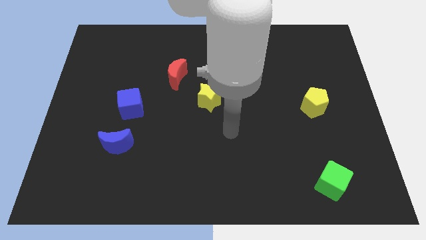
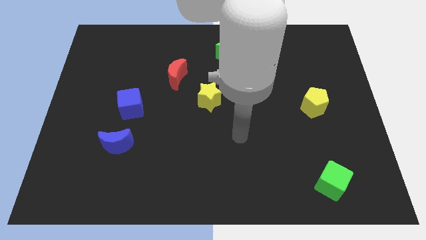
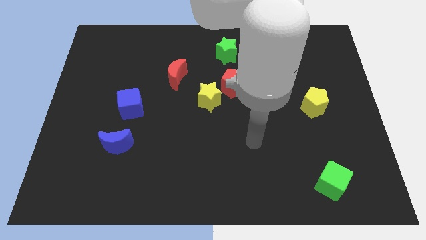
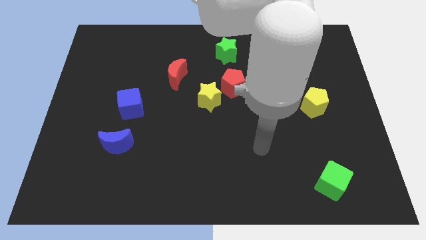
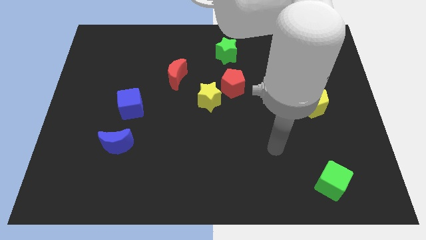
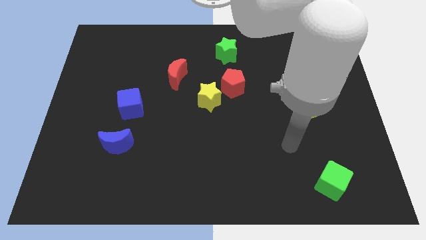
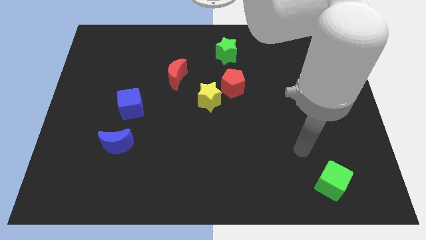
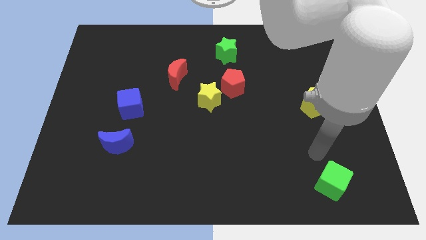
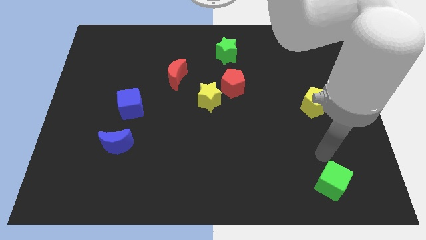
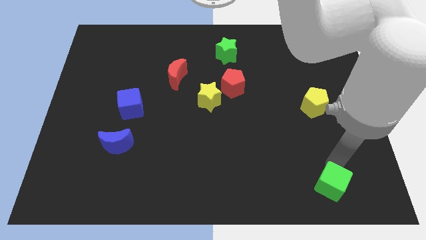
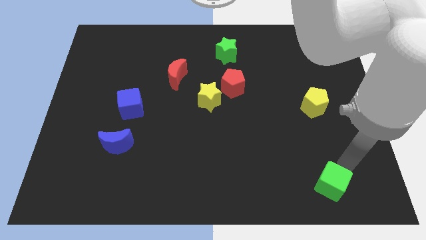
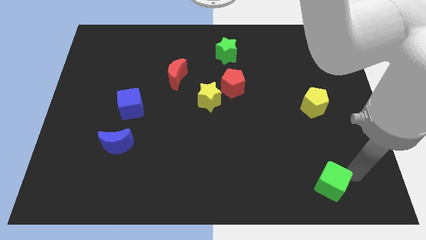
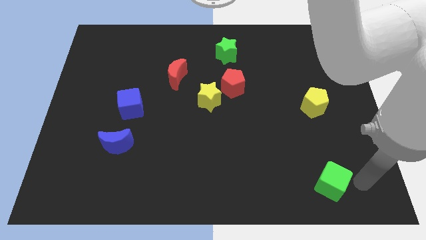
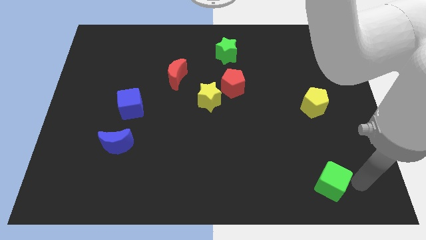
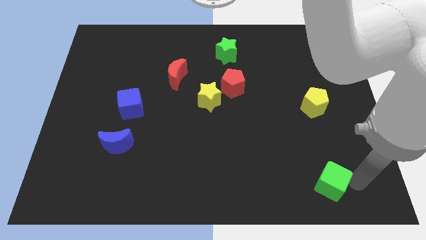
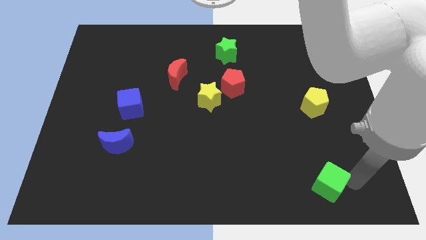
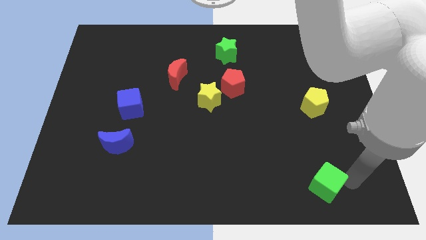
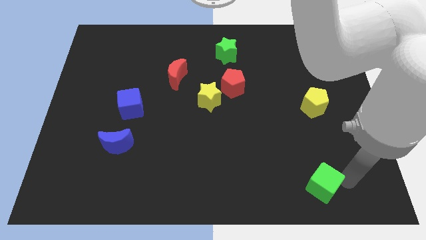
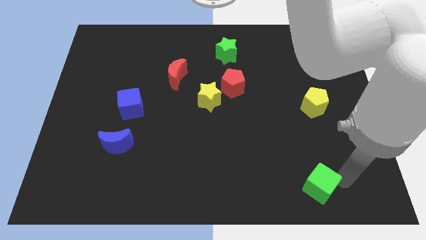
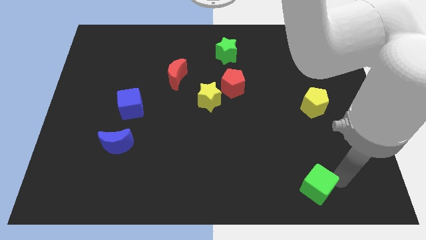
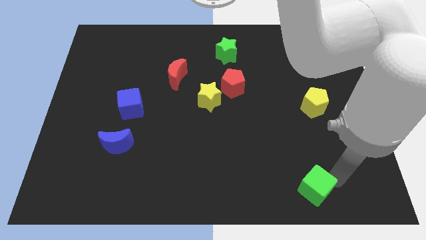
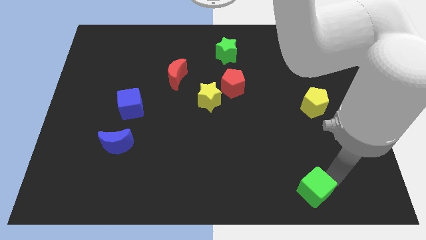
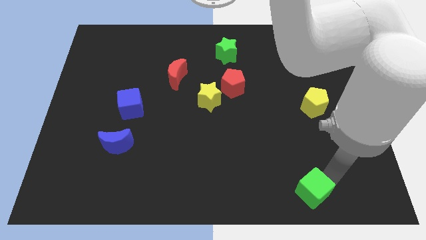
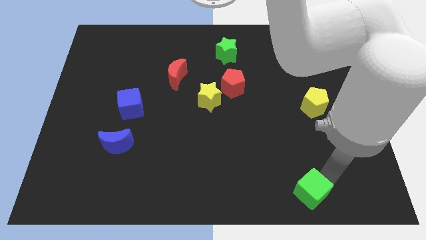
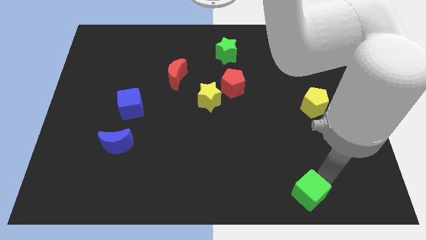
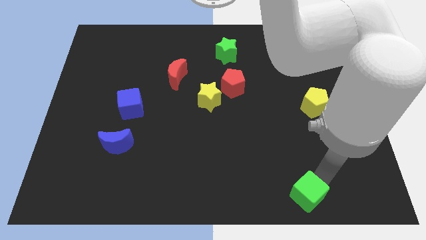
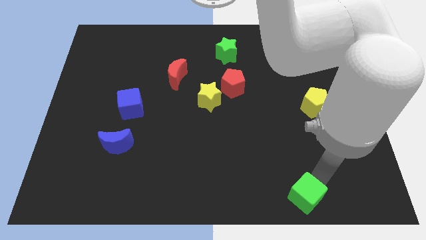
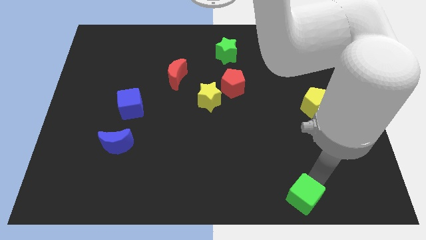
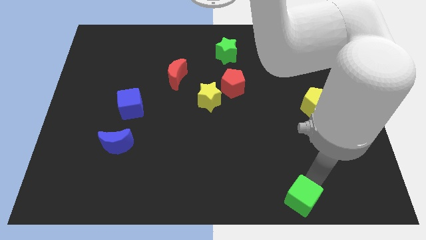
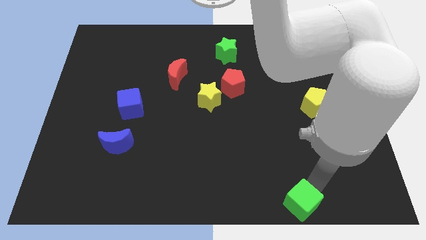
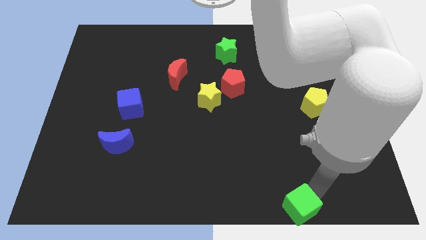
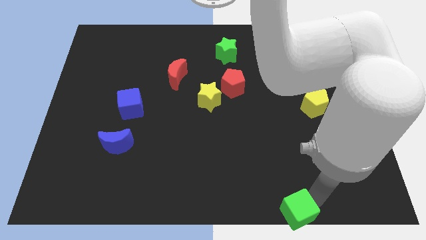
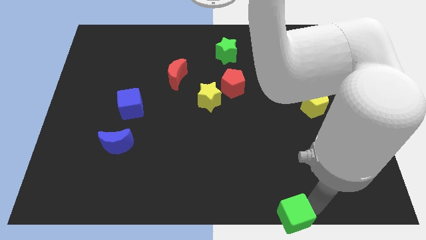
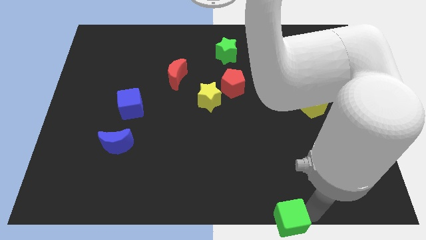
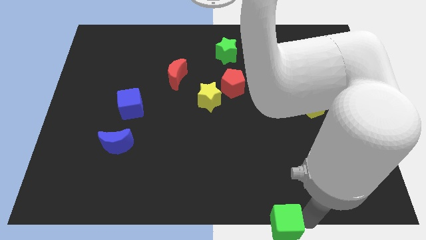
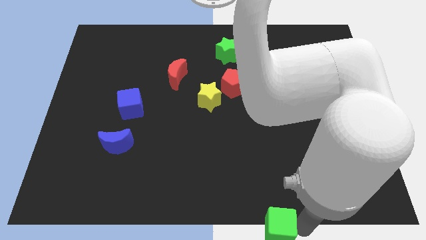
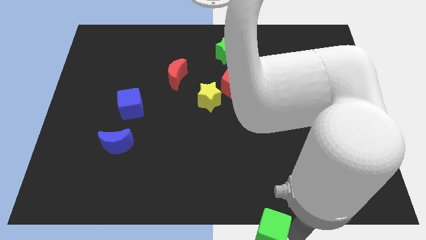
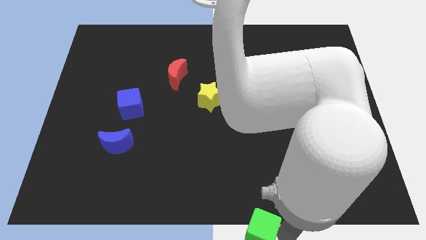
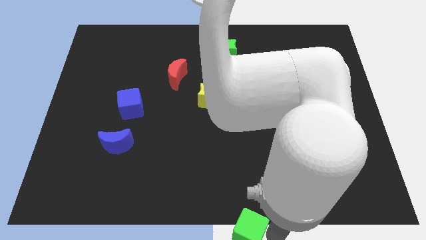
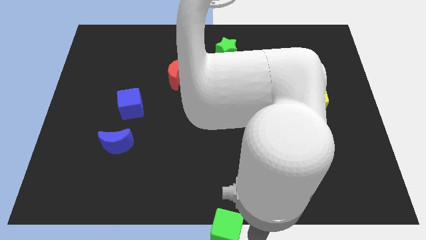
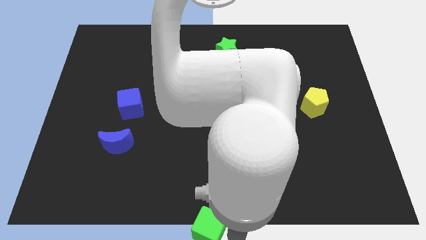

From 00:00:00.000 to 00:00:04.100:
slide the green cube to the left

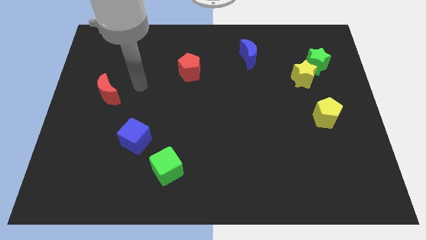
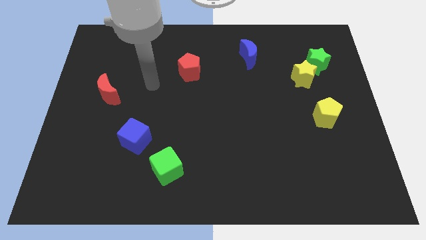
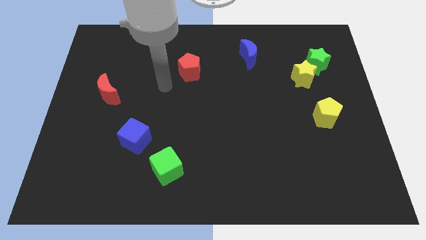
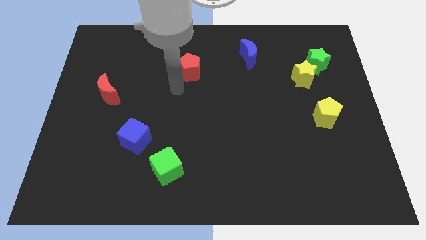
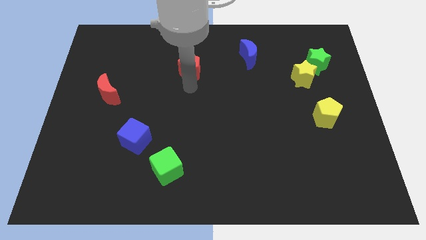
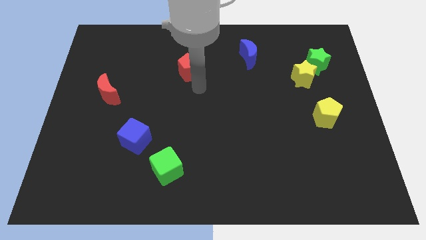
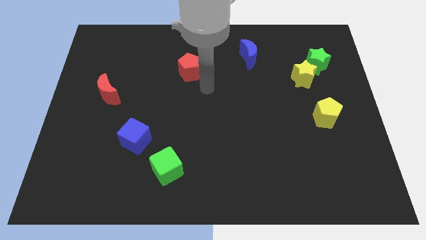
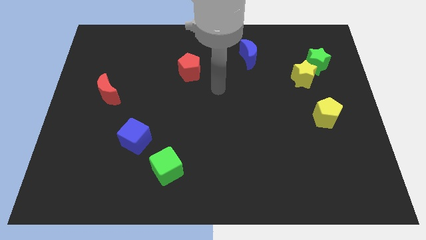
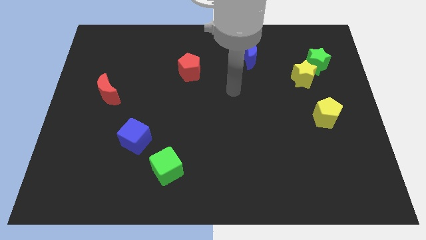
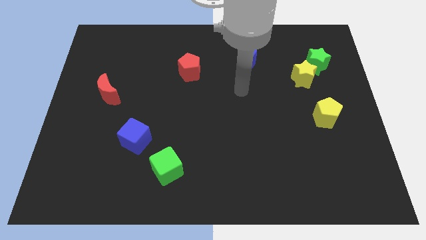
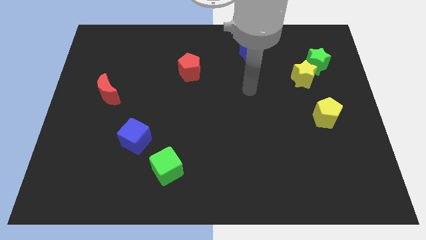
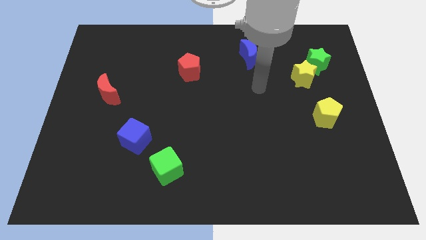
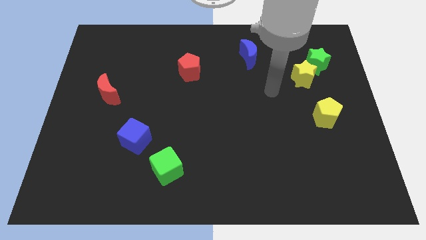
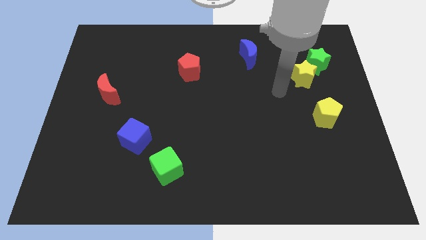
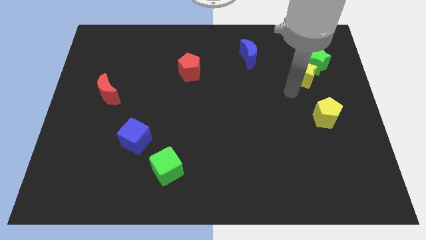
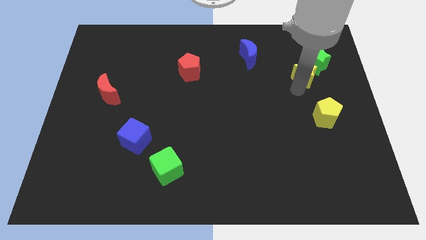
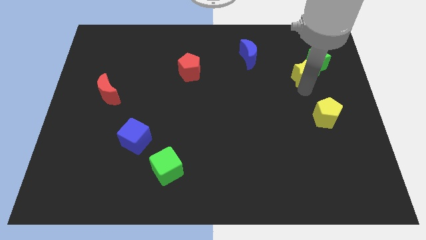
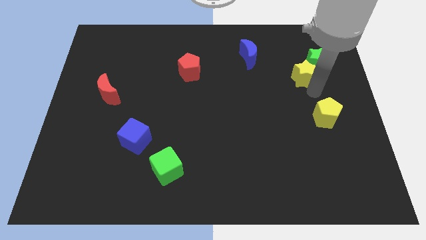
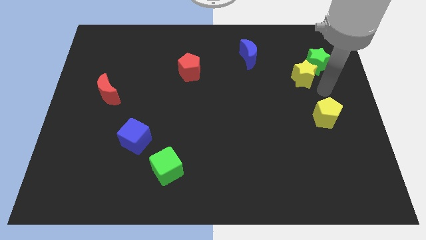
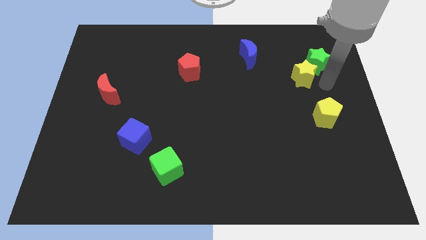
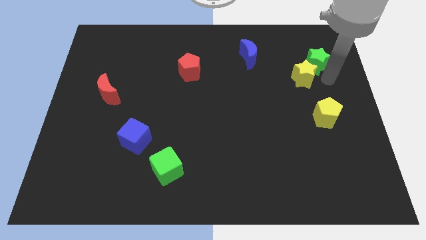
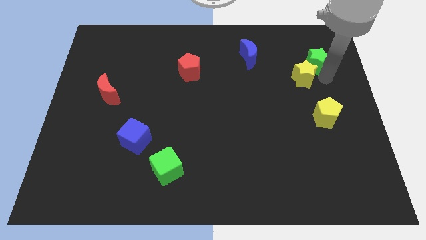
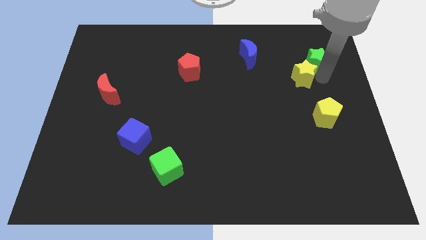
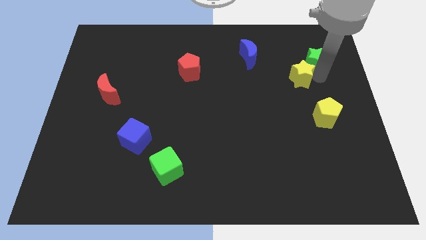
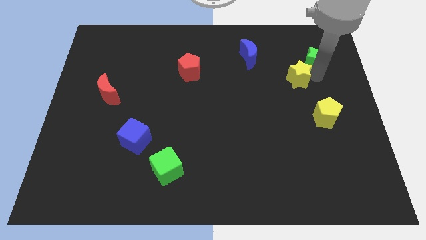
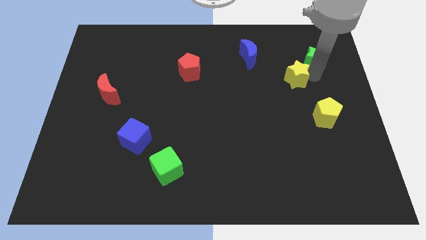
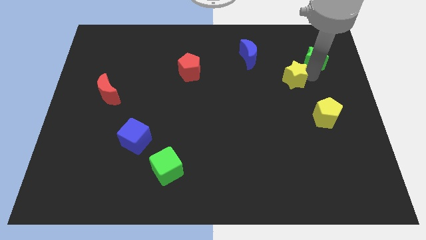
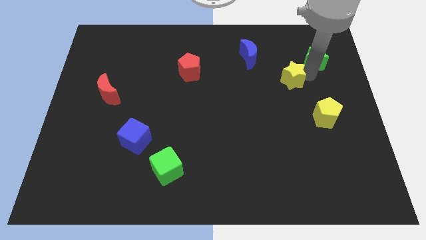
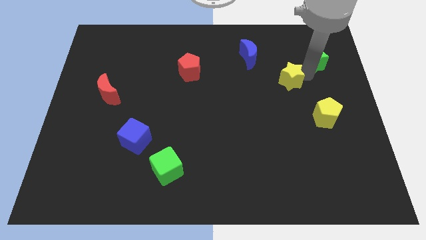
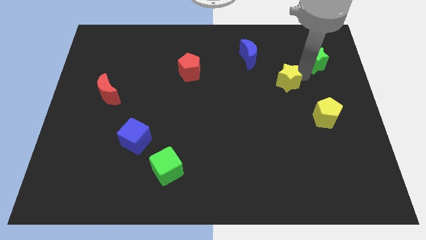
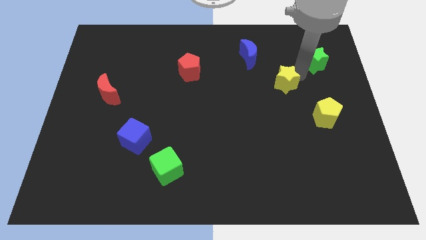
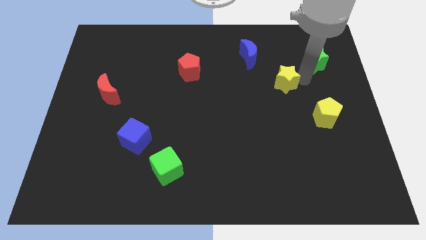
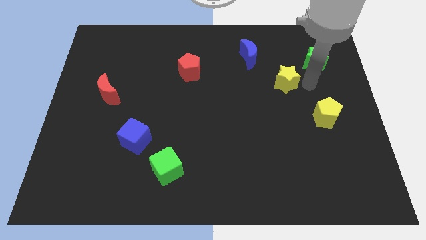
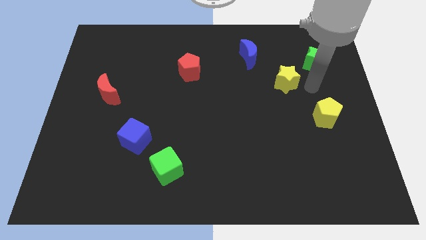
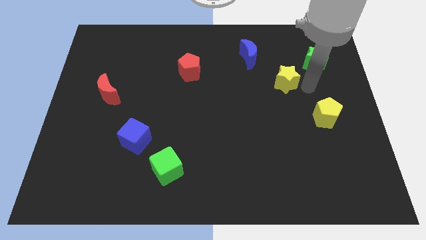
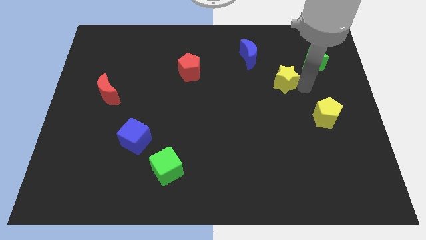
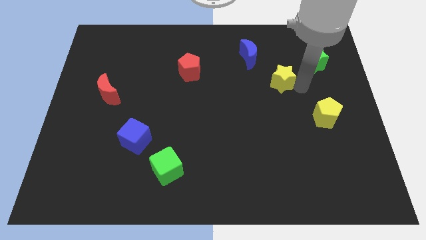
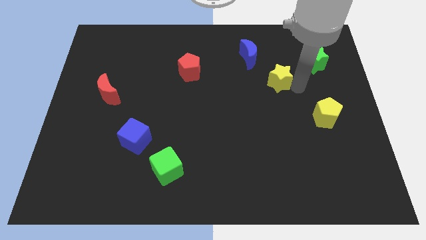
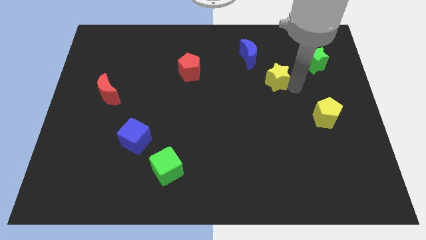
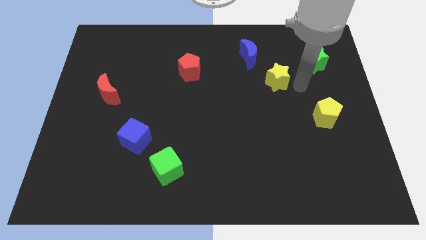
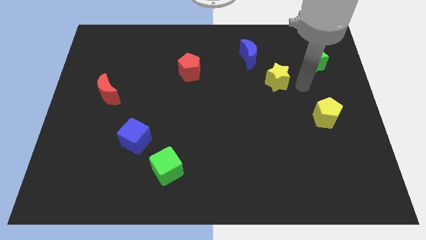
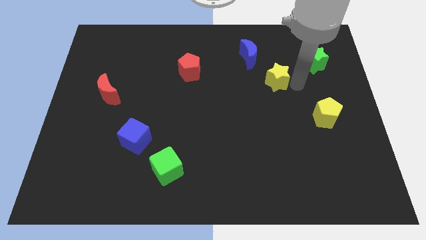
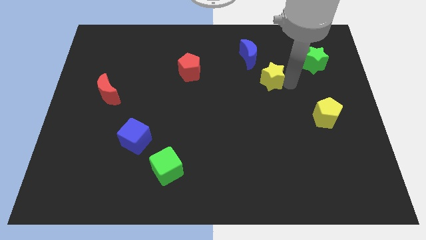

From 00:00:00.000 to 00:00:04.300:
slide the yellow star to the left slightly
